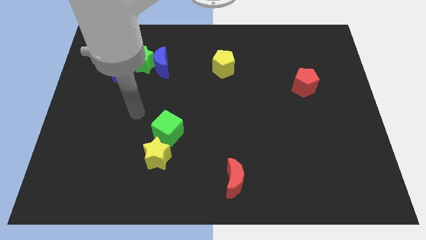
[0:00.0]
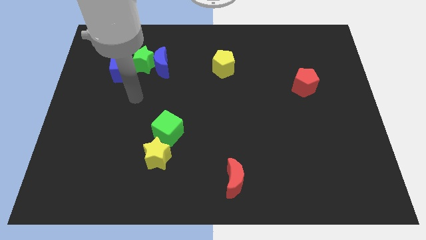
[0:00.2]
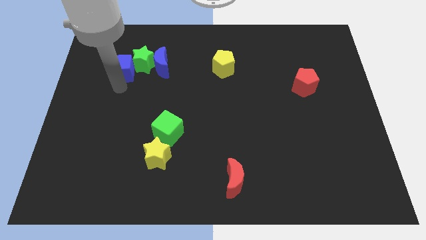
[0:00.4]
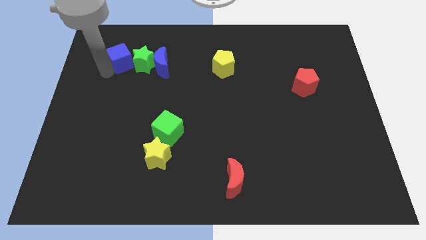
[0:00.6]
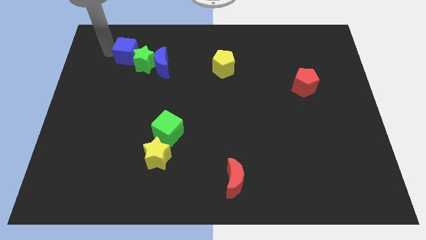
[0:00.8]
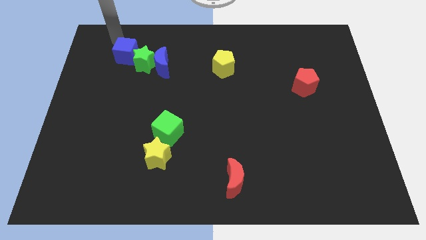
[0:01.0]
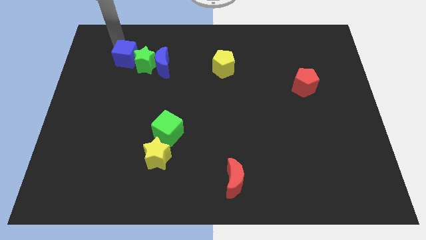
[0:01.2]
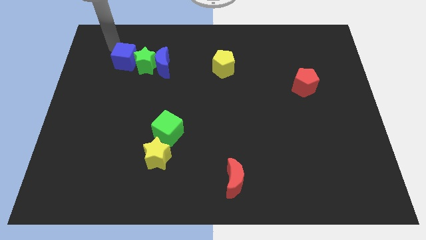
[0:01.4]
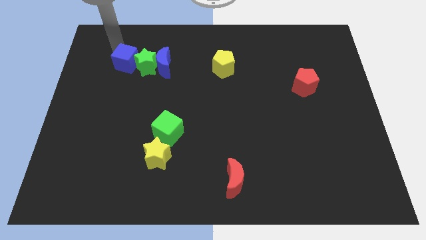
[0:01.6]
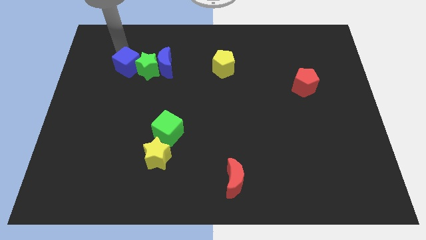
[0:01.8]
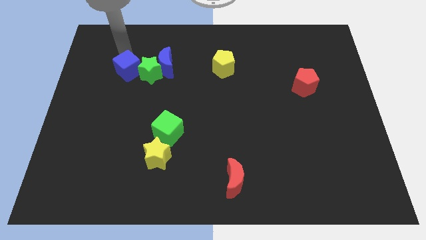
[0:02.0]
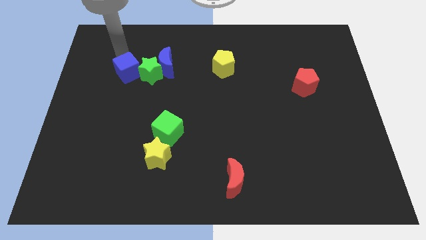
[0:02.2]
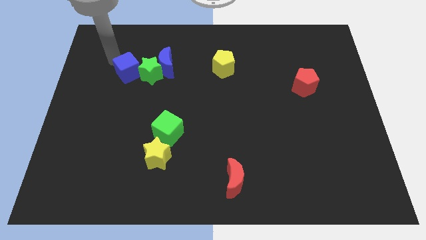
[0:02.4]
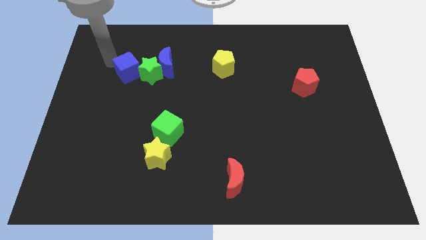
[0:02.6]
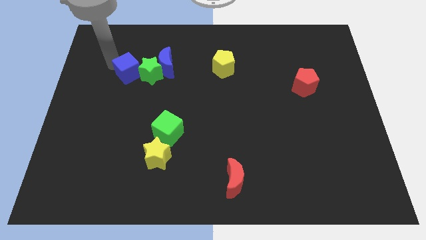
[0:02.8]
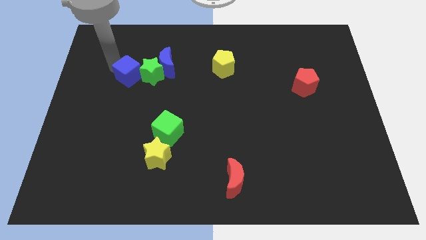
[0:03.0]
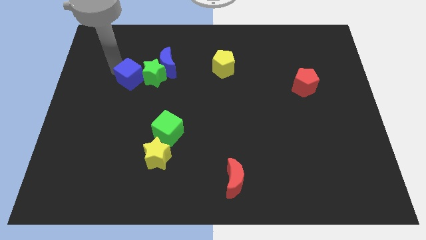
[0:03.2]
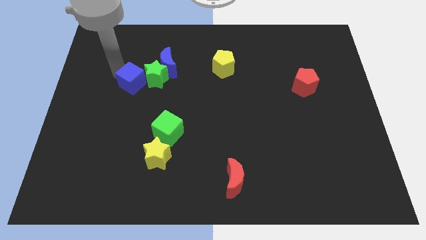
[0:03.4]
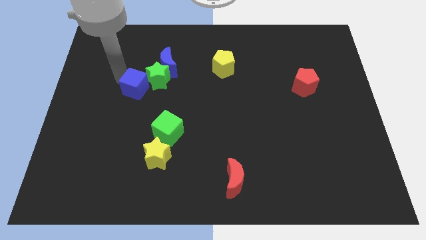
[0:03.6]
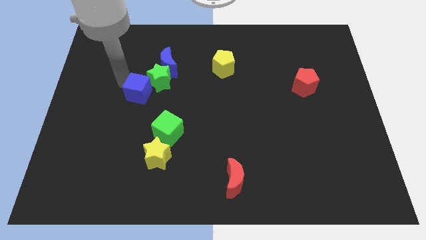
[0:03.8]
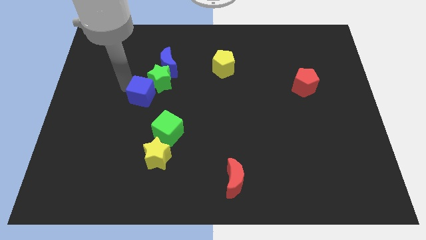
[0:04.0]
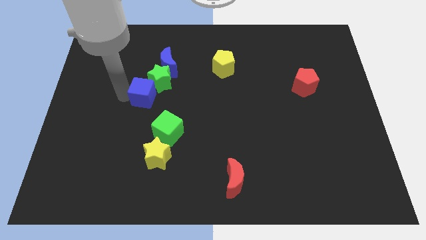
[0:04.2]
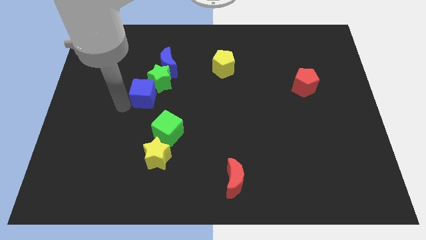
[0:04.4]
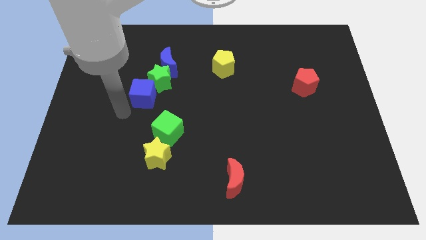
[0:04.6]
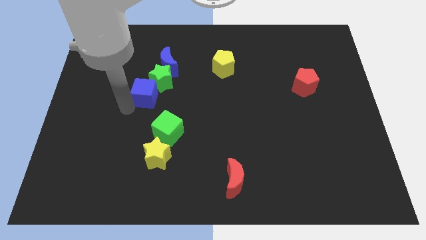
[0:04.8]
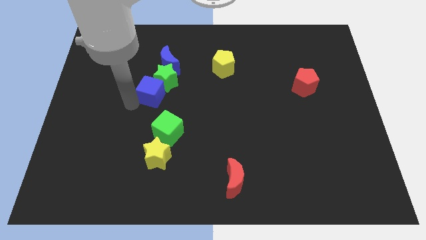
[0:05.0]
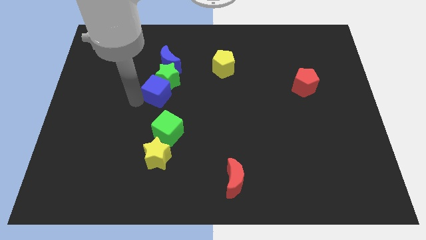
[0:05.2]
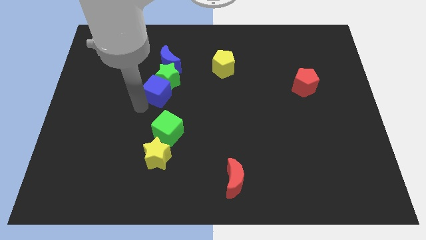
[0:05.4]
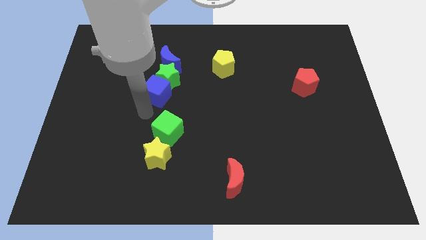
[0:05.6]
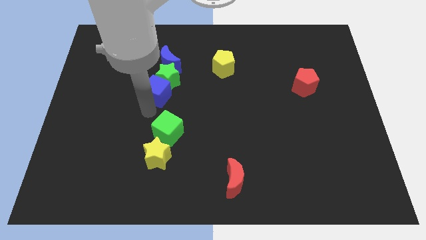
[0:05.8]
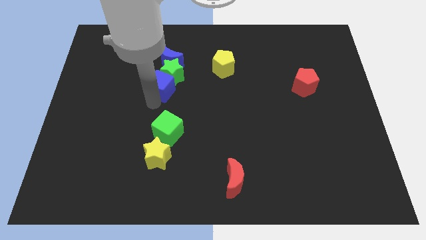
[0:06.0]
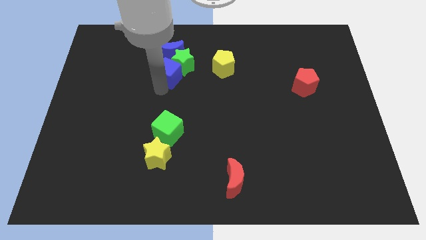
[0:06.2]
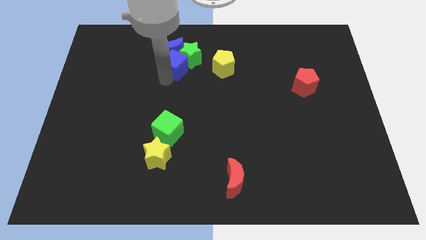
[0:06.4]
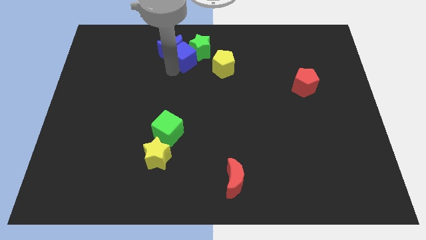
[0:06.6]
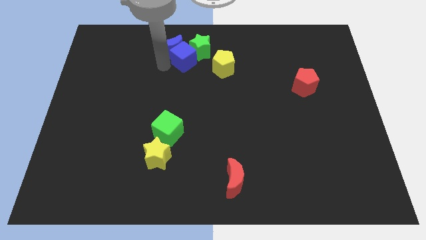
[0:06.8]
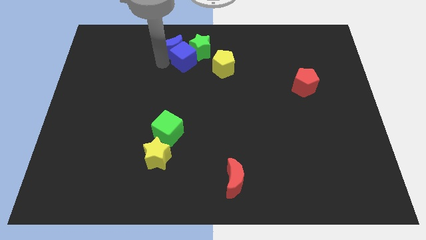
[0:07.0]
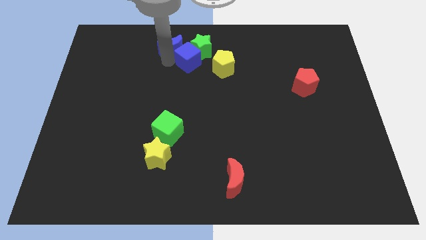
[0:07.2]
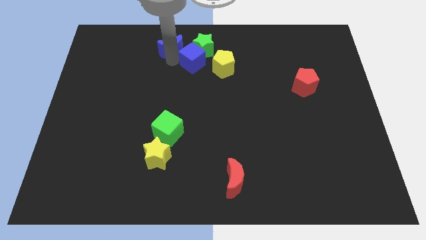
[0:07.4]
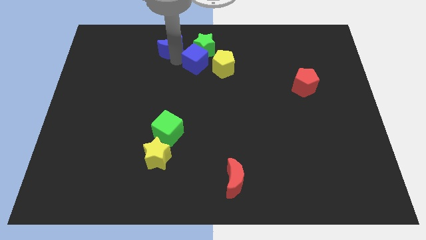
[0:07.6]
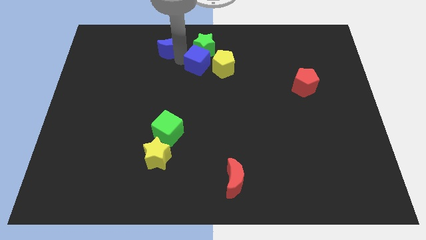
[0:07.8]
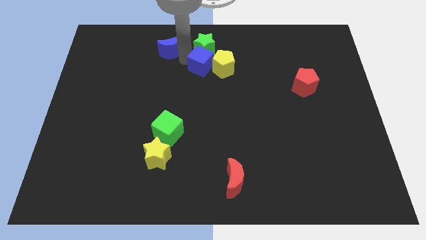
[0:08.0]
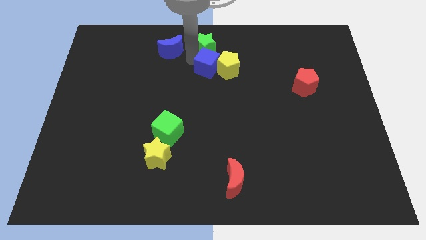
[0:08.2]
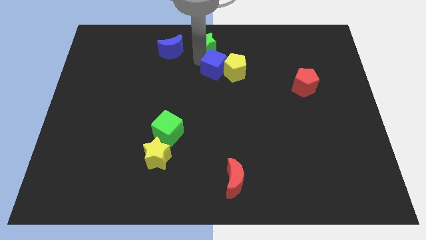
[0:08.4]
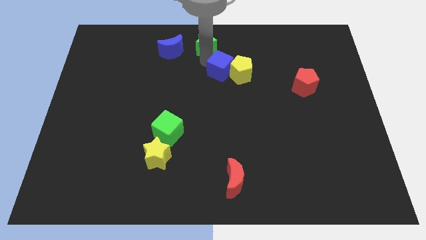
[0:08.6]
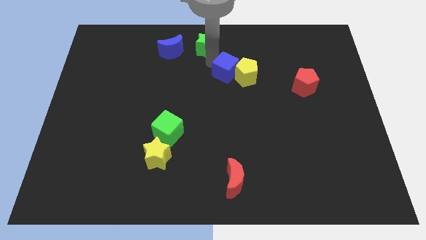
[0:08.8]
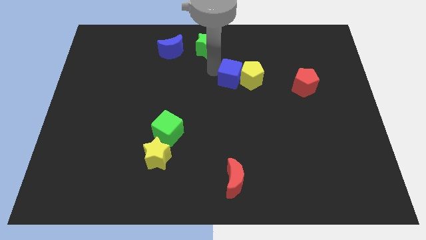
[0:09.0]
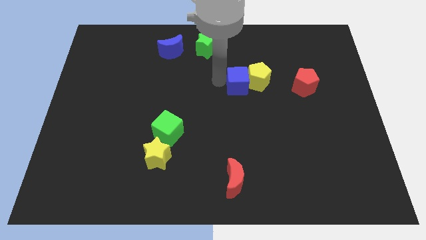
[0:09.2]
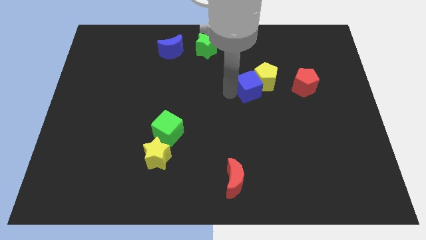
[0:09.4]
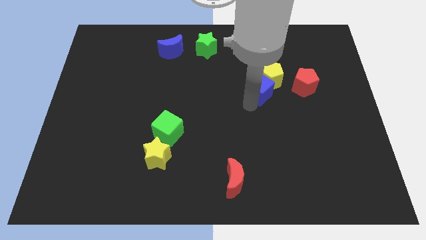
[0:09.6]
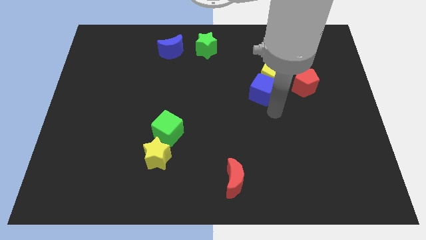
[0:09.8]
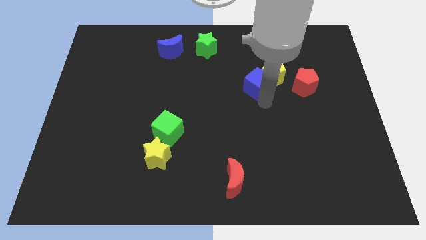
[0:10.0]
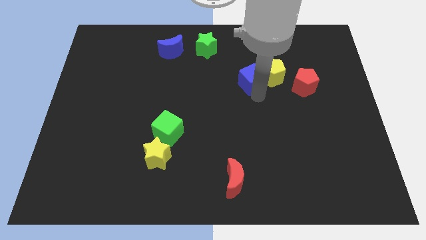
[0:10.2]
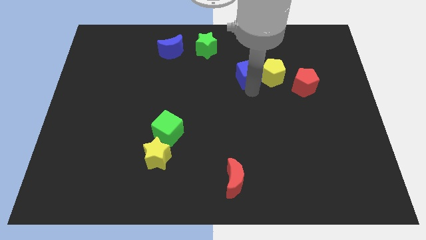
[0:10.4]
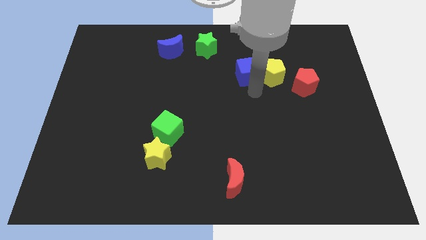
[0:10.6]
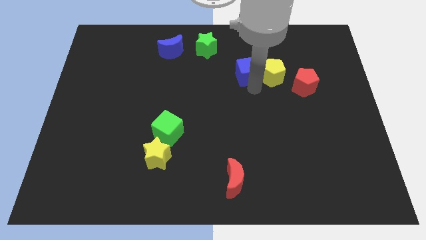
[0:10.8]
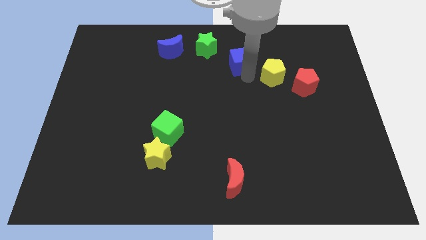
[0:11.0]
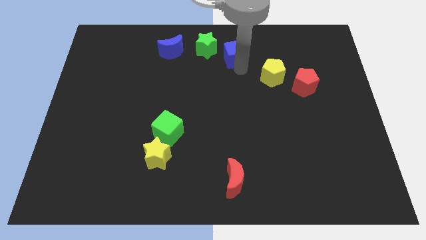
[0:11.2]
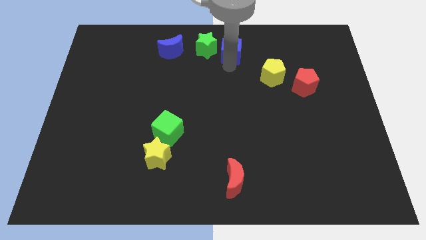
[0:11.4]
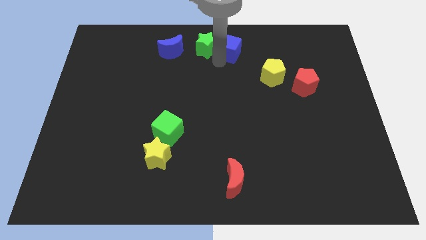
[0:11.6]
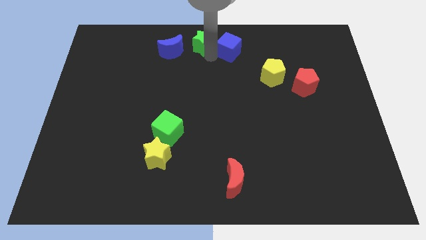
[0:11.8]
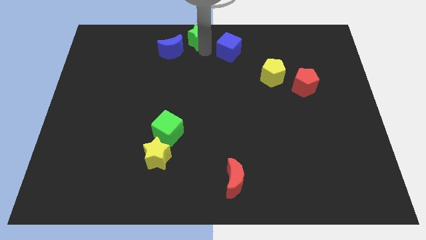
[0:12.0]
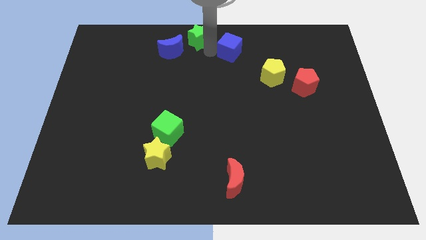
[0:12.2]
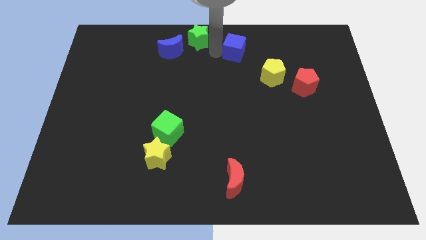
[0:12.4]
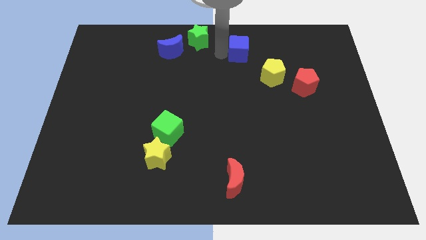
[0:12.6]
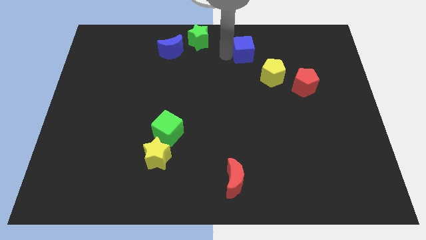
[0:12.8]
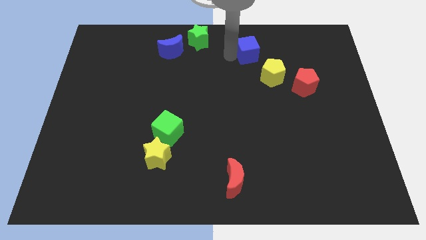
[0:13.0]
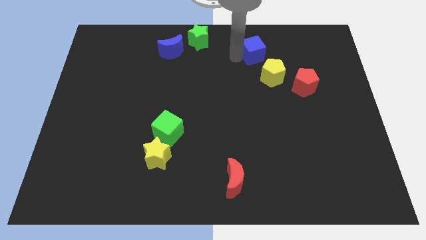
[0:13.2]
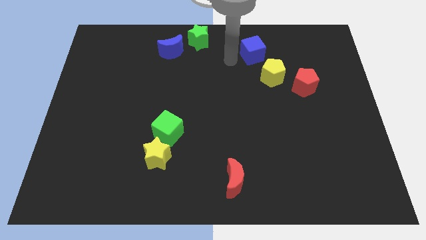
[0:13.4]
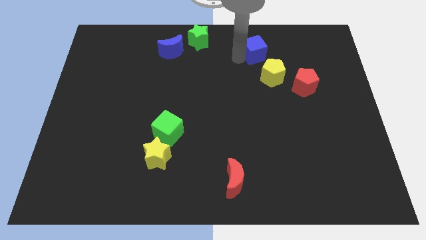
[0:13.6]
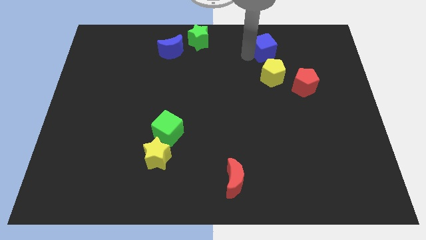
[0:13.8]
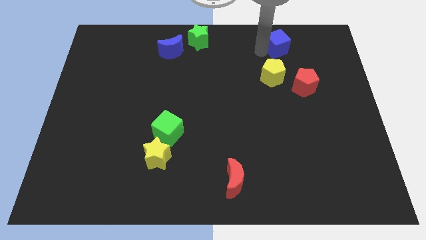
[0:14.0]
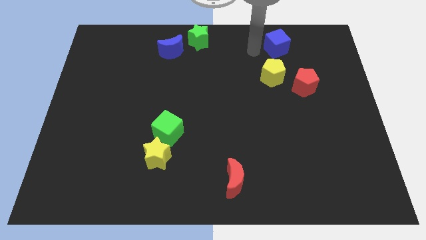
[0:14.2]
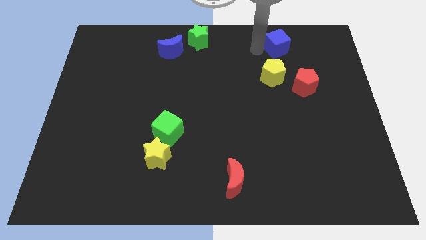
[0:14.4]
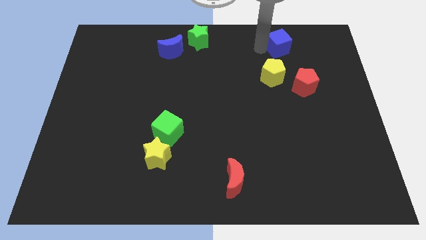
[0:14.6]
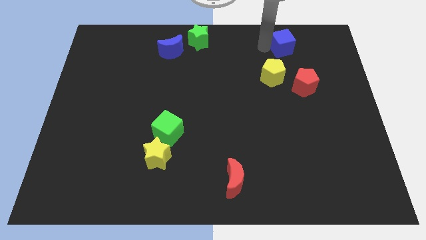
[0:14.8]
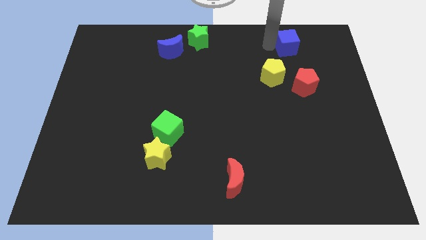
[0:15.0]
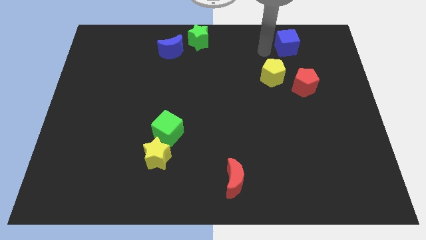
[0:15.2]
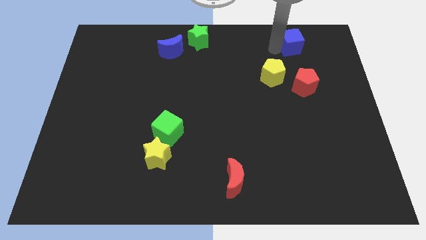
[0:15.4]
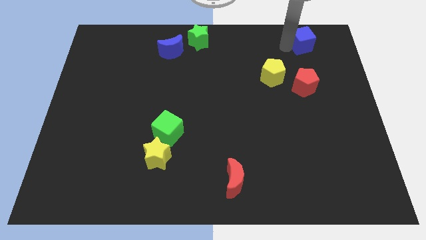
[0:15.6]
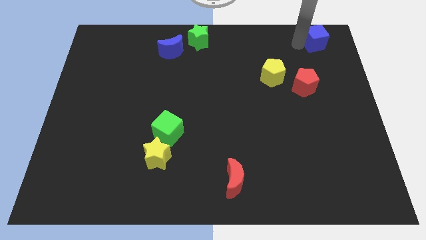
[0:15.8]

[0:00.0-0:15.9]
push the blue cube to the upper right corner
